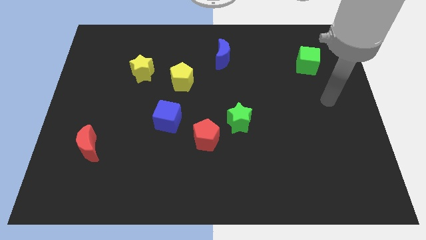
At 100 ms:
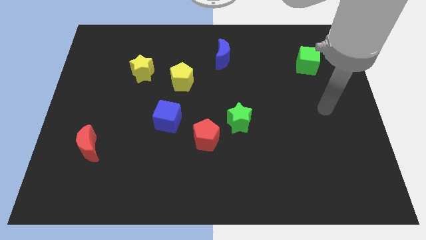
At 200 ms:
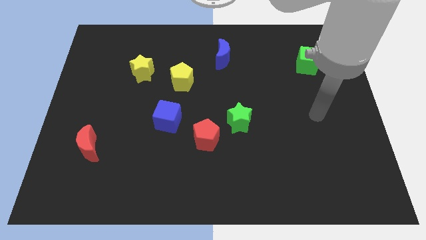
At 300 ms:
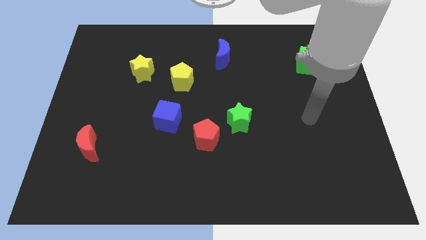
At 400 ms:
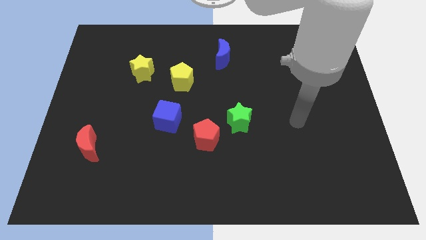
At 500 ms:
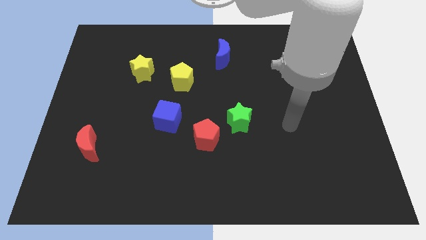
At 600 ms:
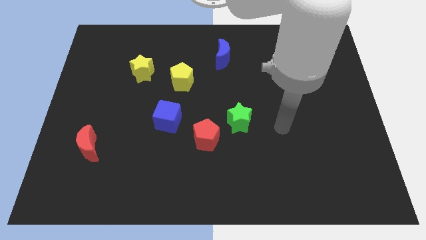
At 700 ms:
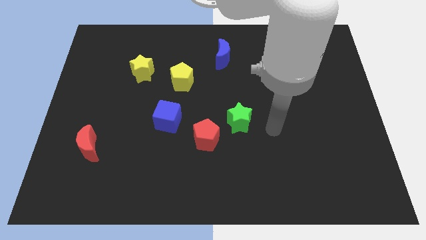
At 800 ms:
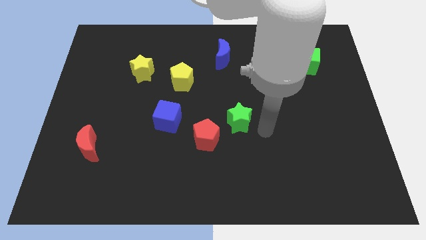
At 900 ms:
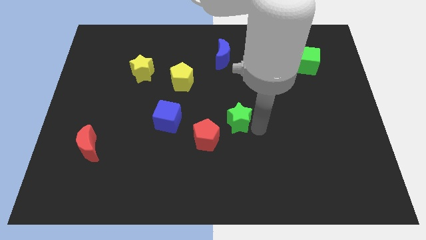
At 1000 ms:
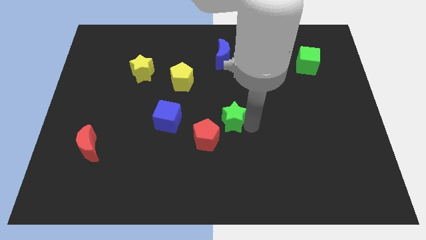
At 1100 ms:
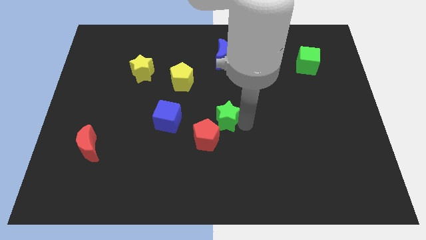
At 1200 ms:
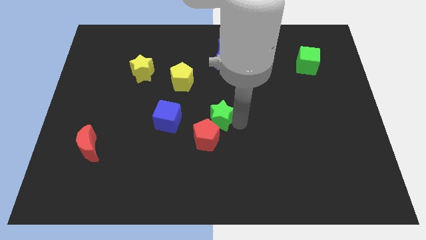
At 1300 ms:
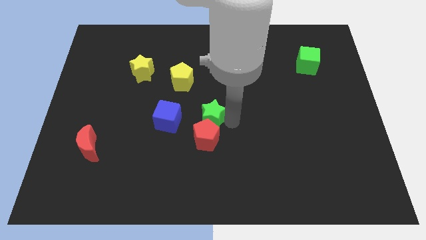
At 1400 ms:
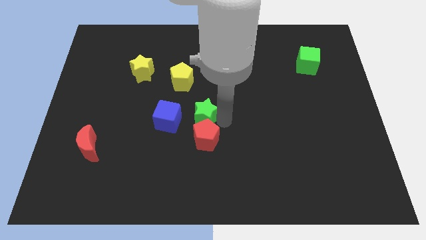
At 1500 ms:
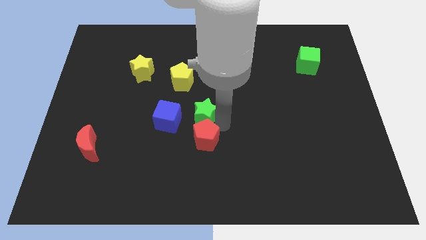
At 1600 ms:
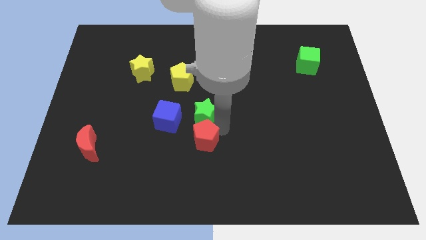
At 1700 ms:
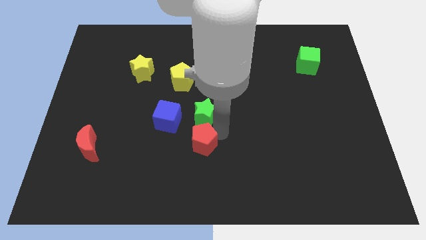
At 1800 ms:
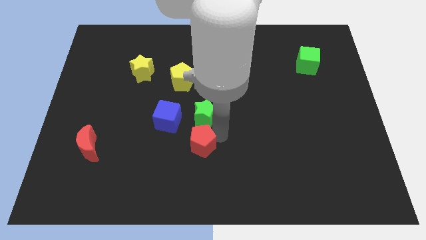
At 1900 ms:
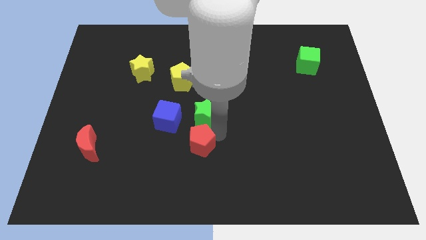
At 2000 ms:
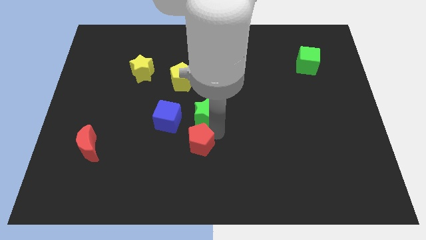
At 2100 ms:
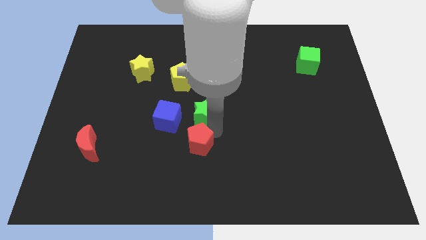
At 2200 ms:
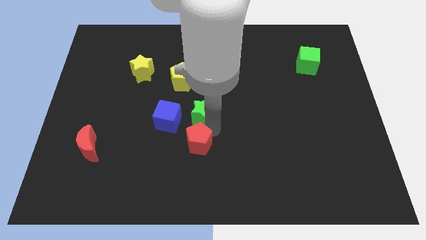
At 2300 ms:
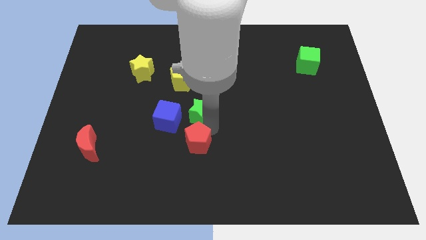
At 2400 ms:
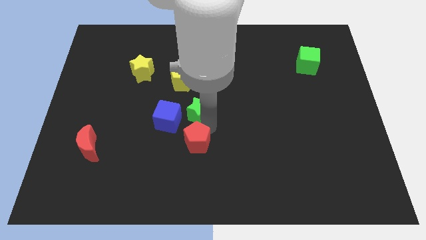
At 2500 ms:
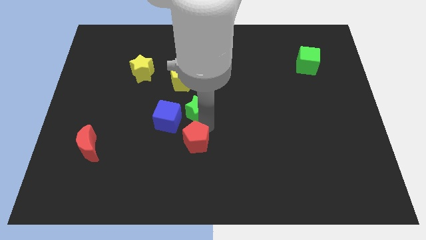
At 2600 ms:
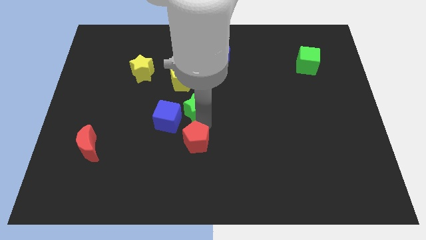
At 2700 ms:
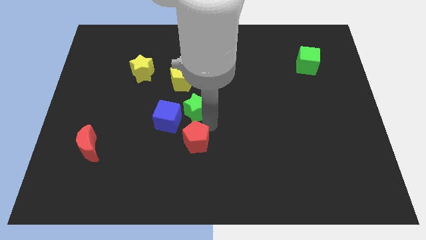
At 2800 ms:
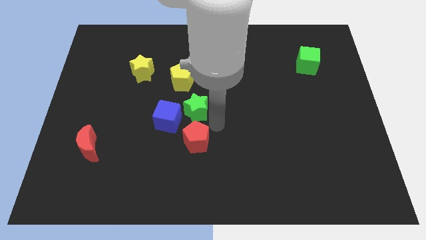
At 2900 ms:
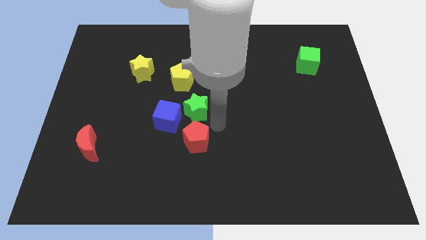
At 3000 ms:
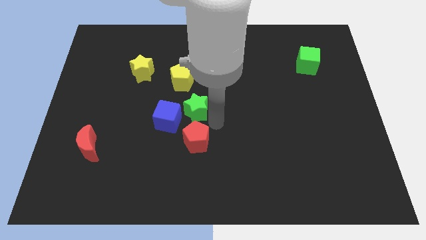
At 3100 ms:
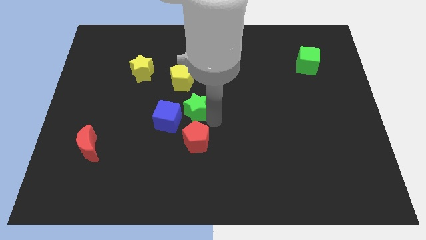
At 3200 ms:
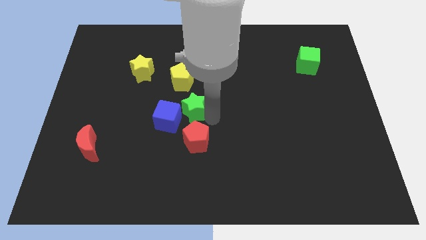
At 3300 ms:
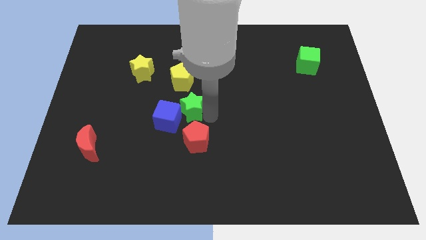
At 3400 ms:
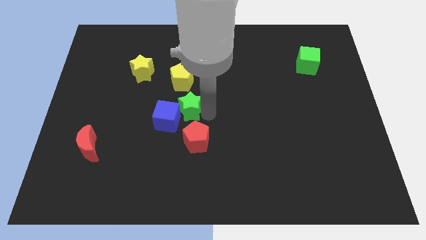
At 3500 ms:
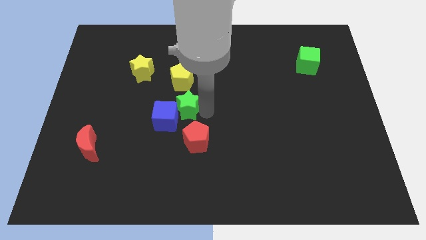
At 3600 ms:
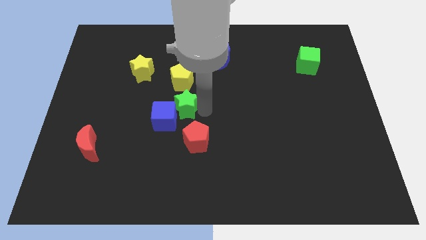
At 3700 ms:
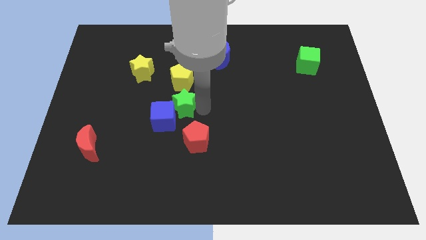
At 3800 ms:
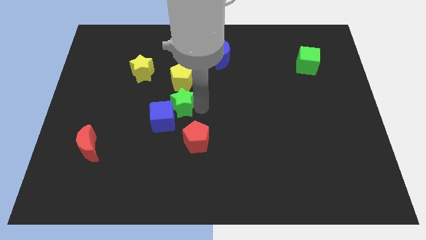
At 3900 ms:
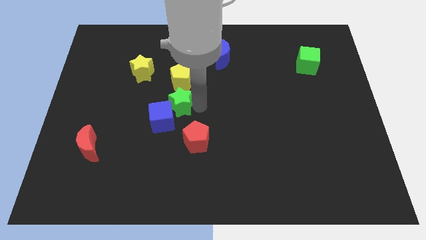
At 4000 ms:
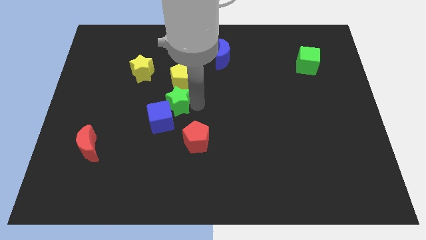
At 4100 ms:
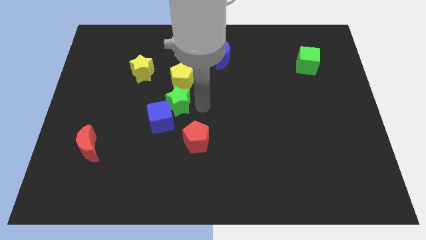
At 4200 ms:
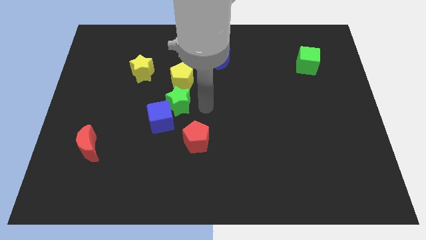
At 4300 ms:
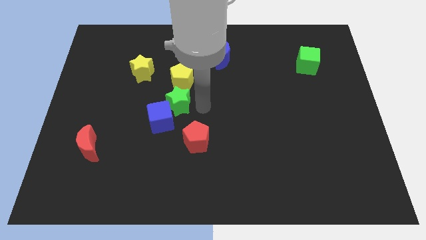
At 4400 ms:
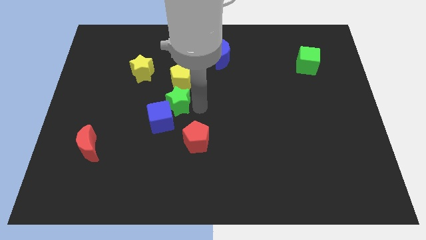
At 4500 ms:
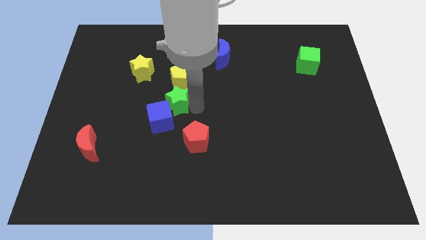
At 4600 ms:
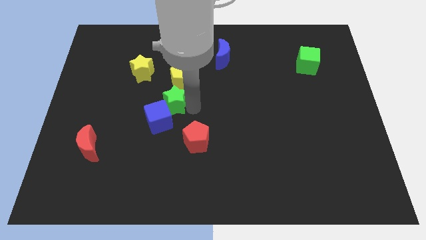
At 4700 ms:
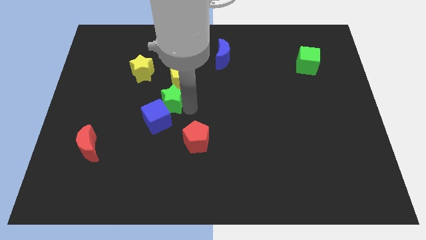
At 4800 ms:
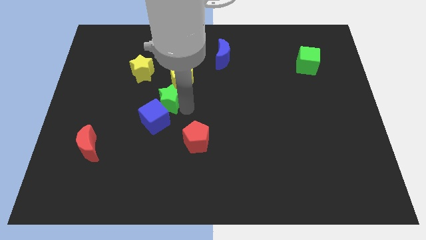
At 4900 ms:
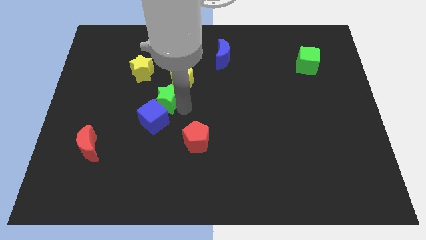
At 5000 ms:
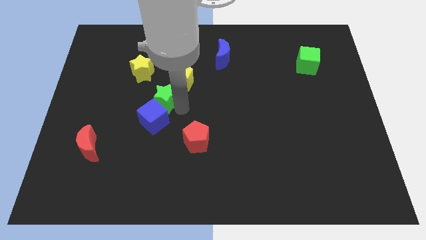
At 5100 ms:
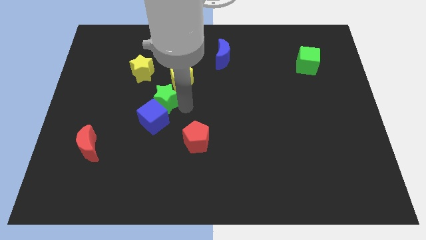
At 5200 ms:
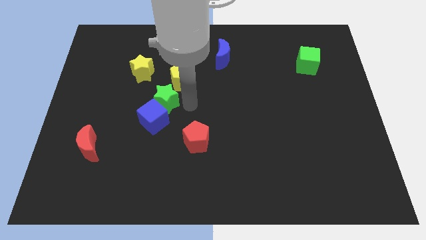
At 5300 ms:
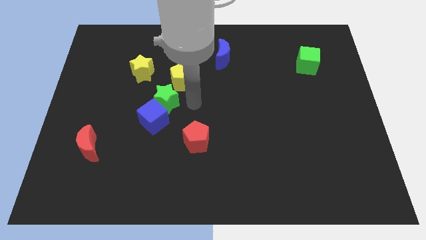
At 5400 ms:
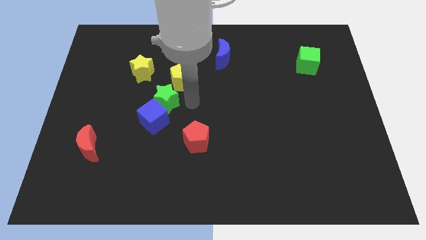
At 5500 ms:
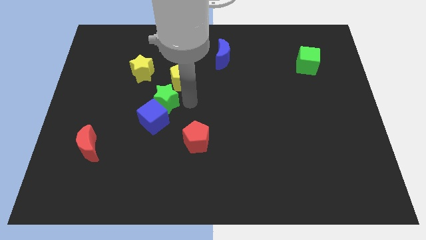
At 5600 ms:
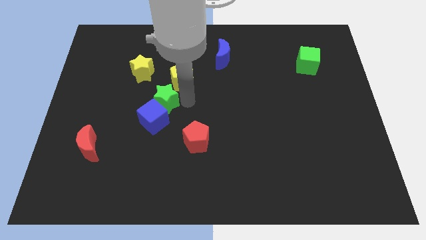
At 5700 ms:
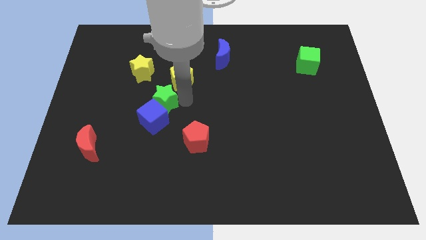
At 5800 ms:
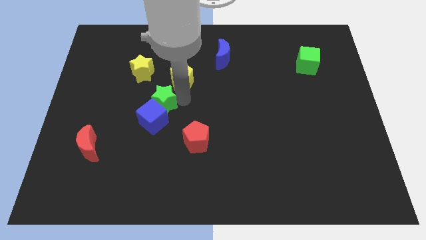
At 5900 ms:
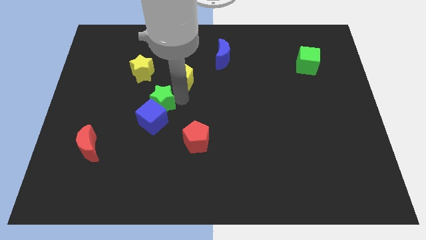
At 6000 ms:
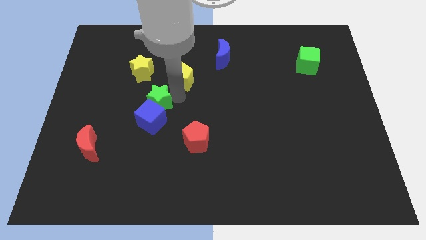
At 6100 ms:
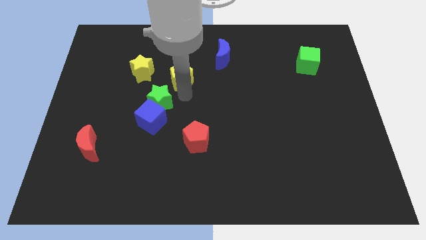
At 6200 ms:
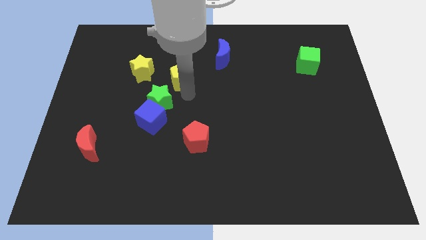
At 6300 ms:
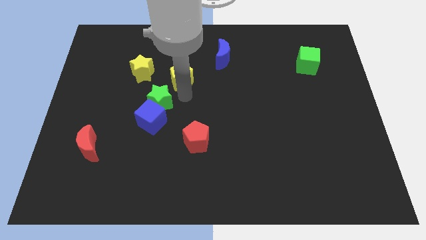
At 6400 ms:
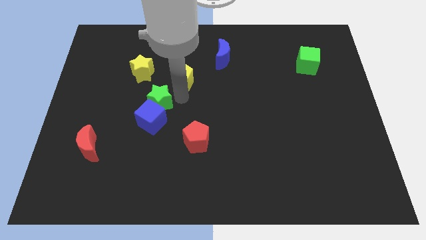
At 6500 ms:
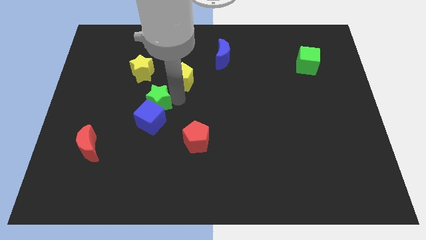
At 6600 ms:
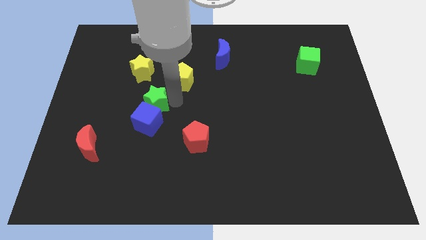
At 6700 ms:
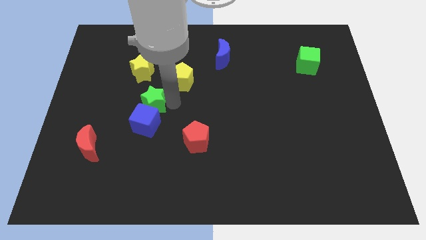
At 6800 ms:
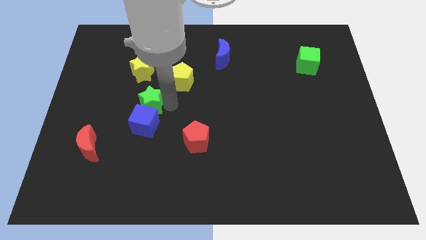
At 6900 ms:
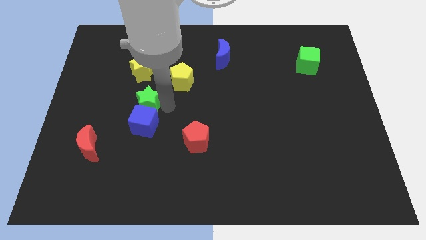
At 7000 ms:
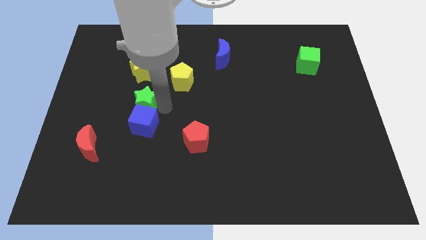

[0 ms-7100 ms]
slide the green star left

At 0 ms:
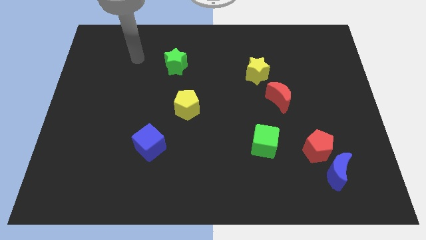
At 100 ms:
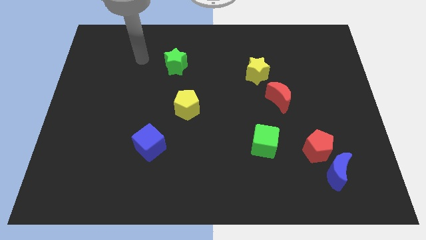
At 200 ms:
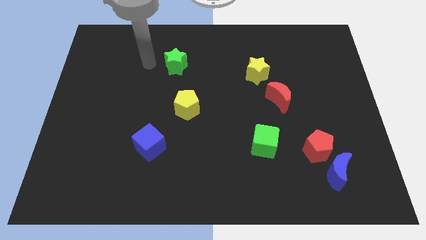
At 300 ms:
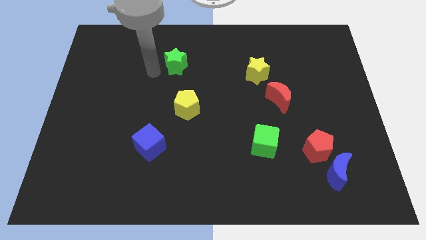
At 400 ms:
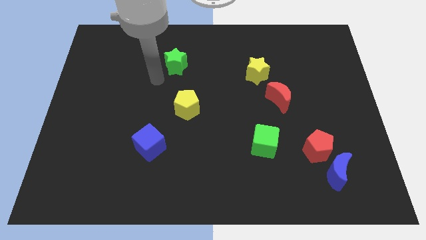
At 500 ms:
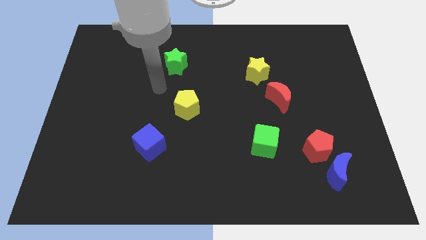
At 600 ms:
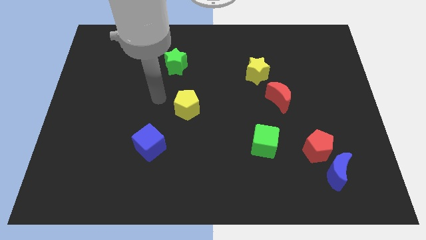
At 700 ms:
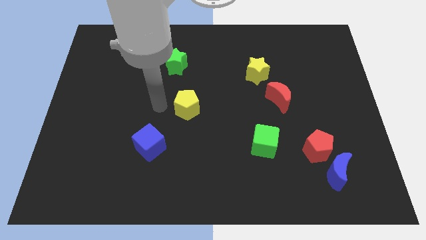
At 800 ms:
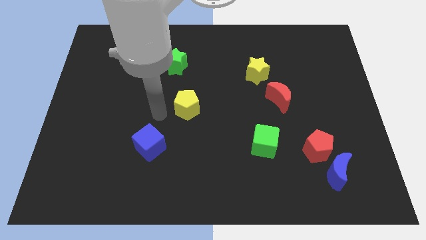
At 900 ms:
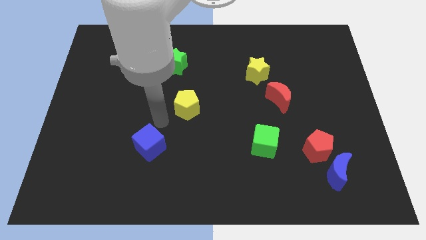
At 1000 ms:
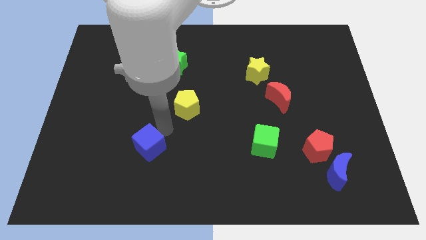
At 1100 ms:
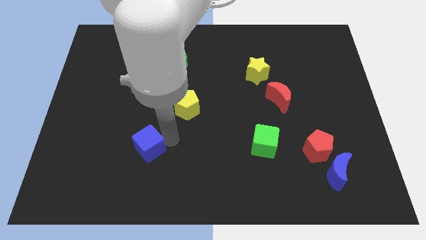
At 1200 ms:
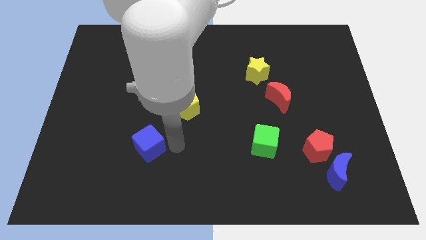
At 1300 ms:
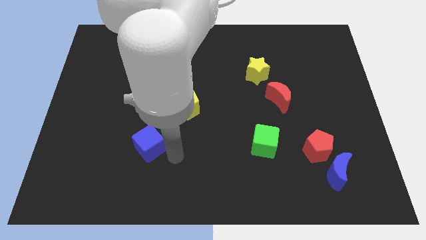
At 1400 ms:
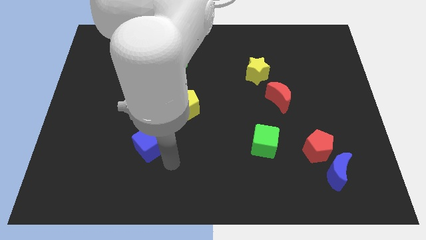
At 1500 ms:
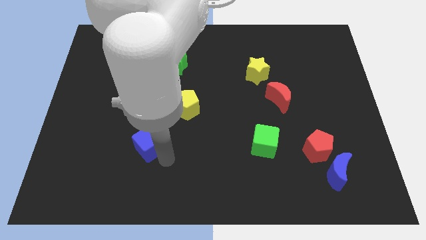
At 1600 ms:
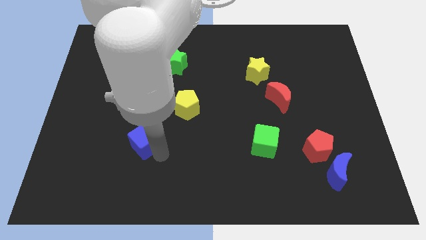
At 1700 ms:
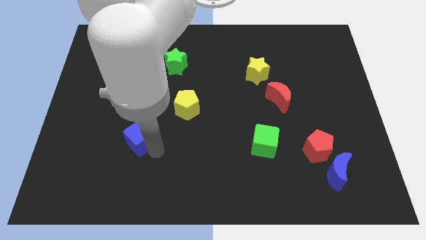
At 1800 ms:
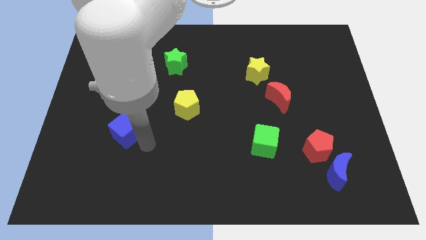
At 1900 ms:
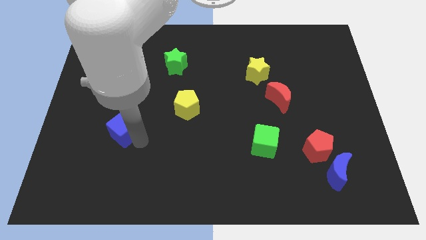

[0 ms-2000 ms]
slightly move the blue cube diagonally upwards and left
